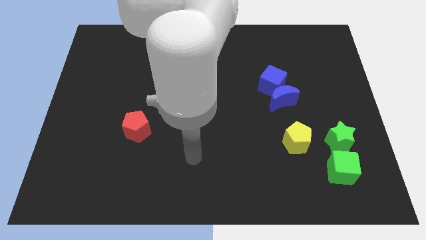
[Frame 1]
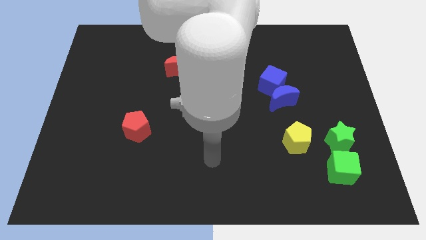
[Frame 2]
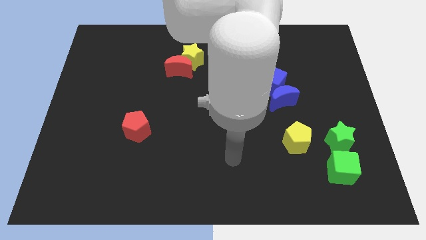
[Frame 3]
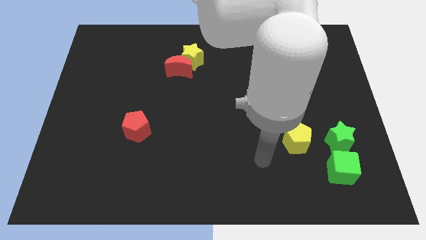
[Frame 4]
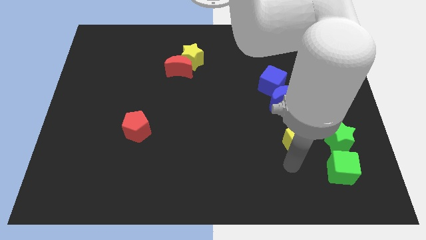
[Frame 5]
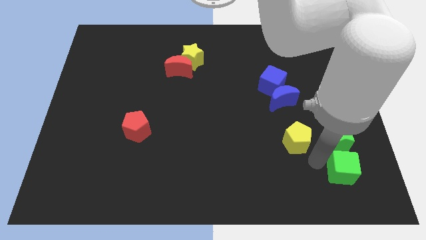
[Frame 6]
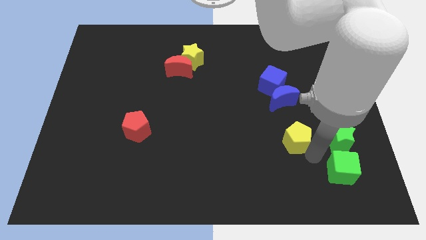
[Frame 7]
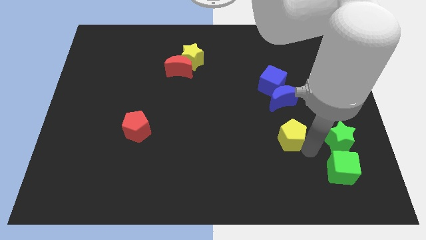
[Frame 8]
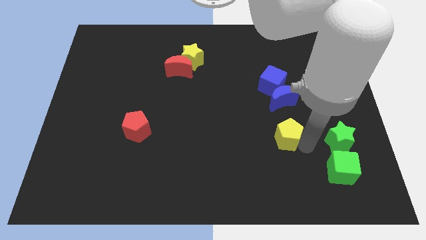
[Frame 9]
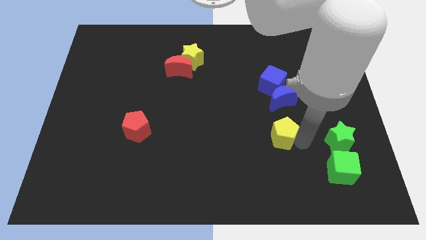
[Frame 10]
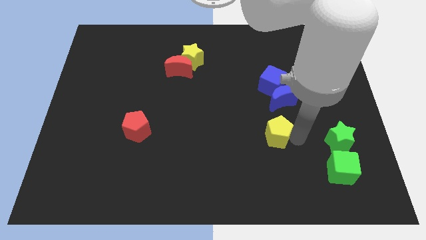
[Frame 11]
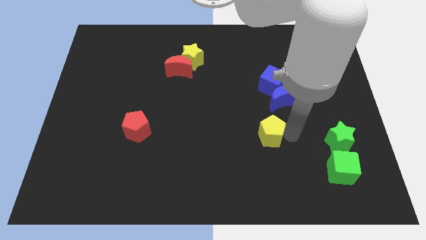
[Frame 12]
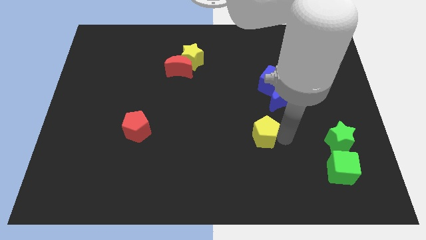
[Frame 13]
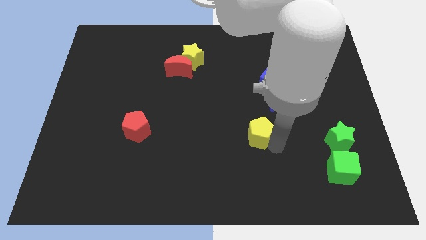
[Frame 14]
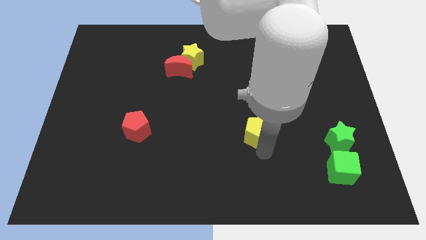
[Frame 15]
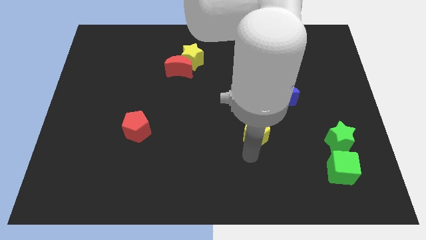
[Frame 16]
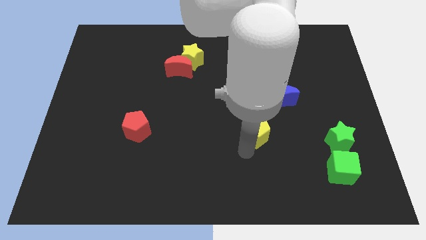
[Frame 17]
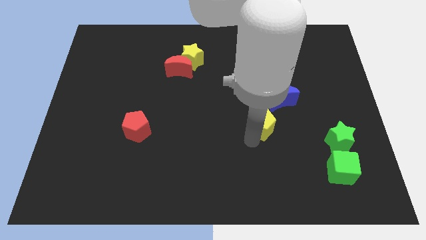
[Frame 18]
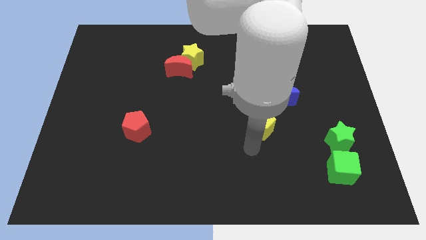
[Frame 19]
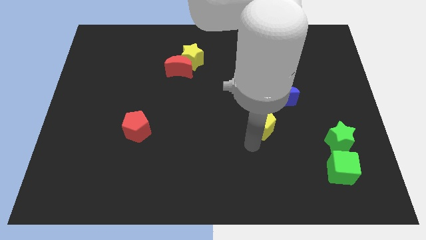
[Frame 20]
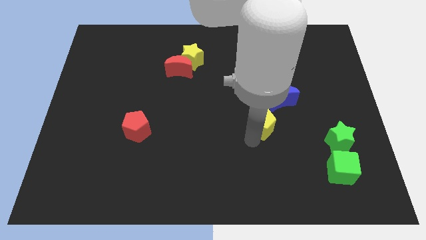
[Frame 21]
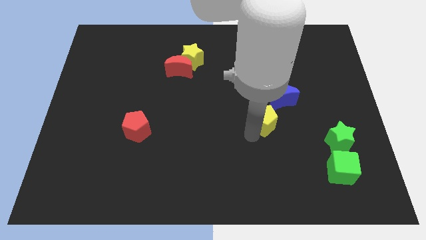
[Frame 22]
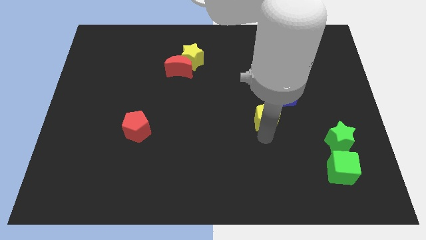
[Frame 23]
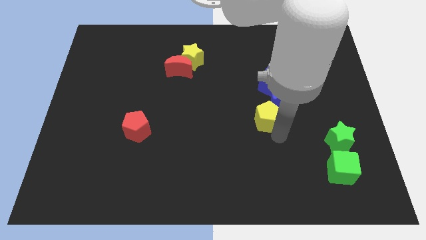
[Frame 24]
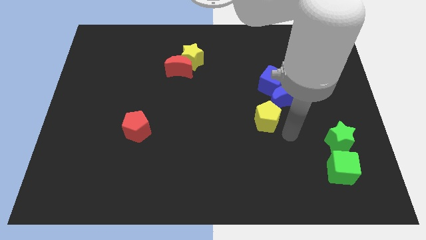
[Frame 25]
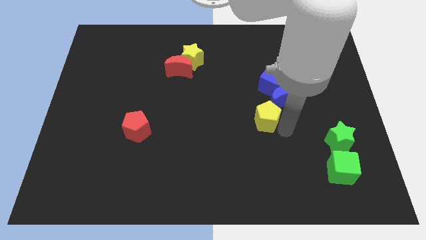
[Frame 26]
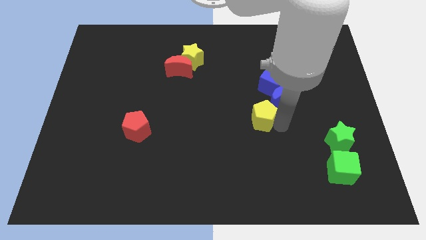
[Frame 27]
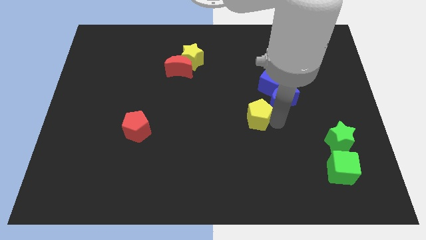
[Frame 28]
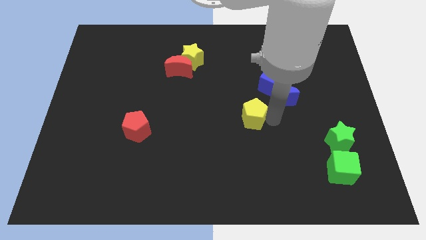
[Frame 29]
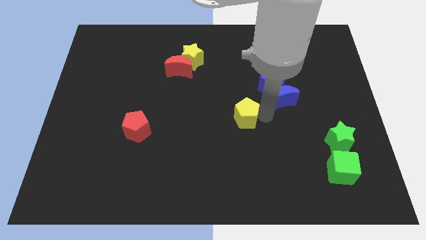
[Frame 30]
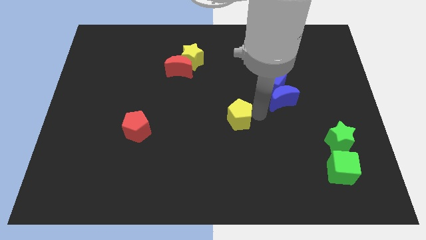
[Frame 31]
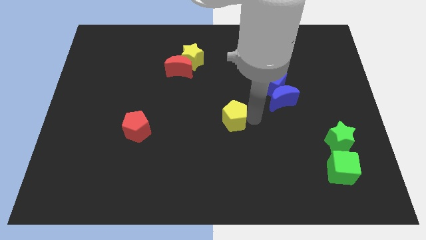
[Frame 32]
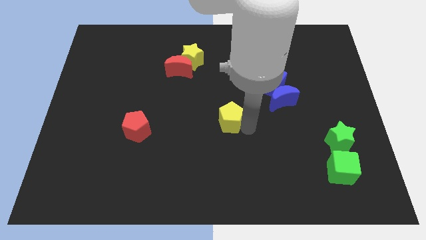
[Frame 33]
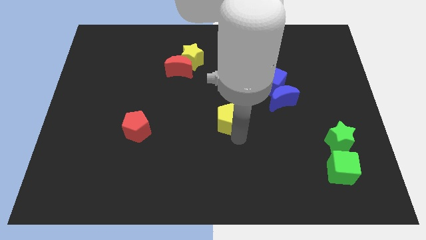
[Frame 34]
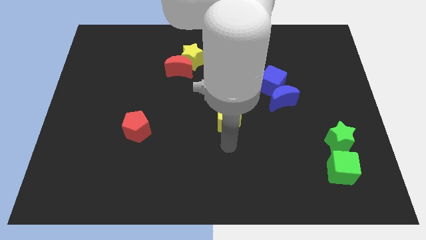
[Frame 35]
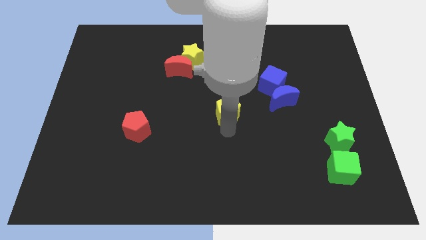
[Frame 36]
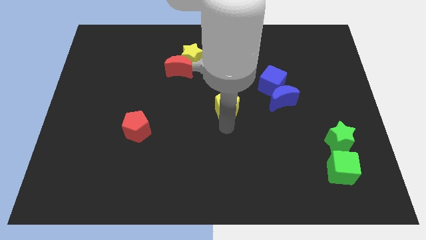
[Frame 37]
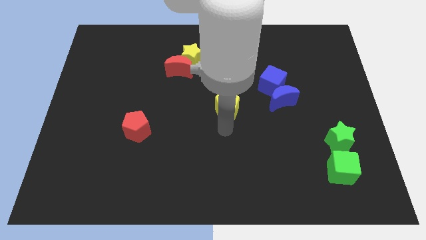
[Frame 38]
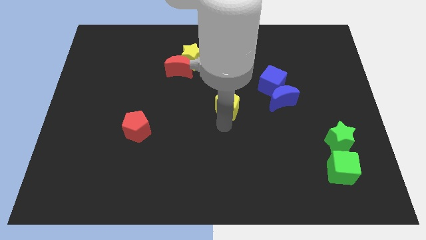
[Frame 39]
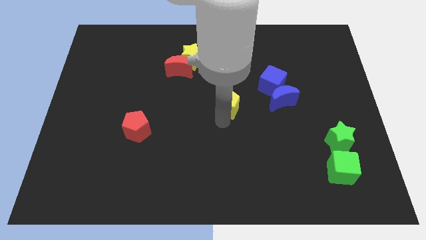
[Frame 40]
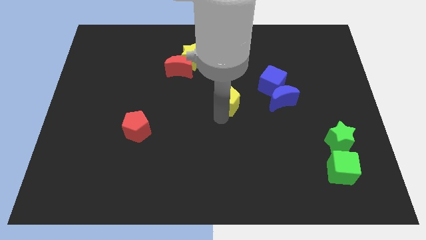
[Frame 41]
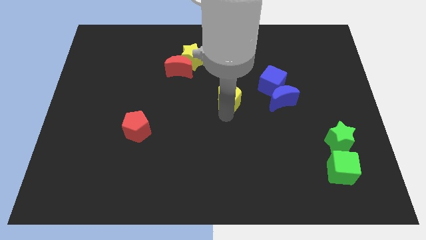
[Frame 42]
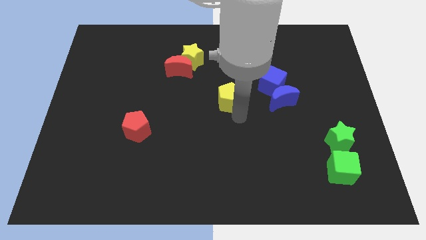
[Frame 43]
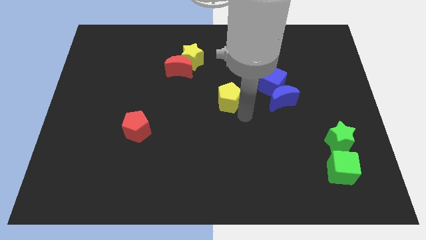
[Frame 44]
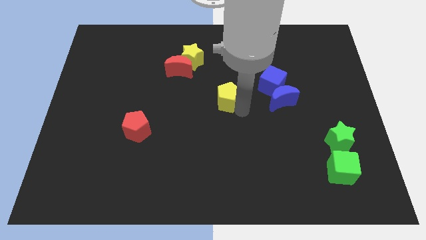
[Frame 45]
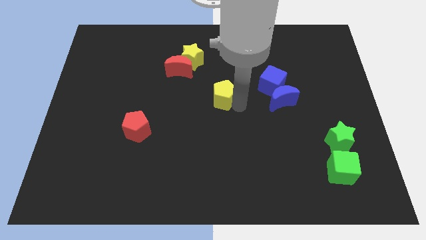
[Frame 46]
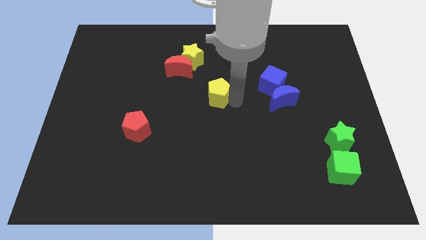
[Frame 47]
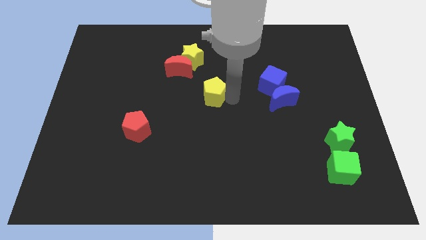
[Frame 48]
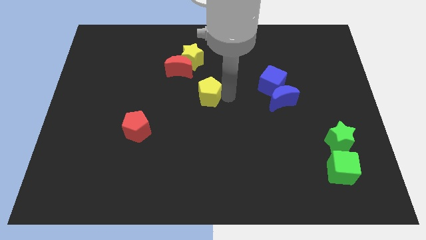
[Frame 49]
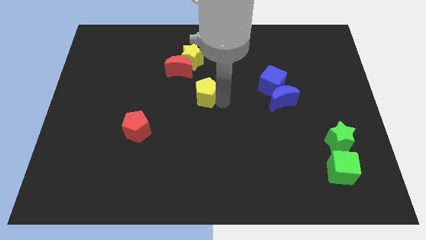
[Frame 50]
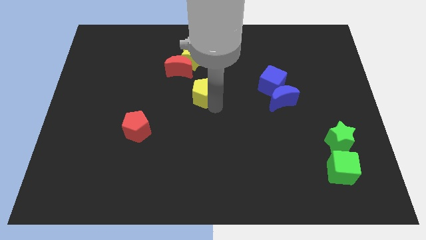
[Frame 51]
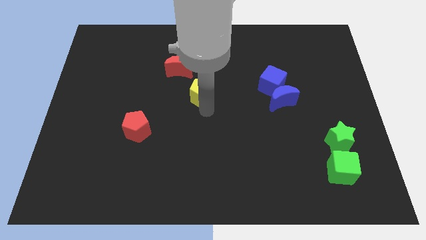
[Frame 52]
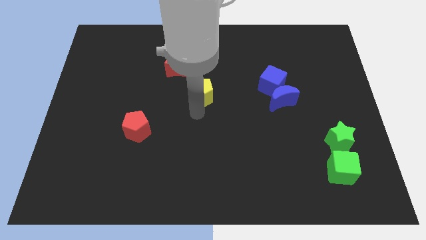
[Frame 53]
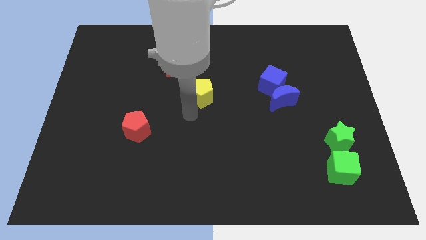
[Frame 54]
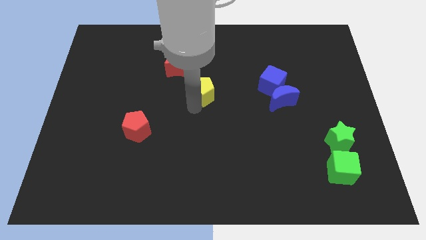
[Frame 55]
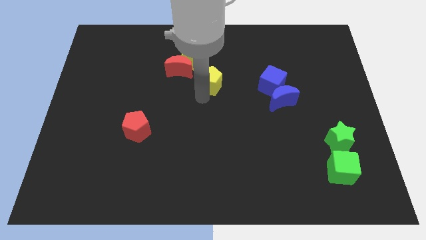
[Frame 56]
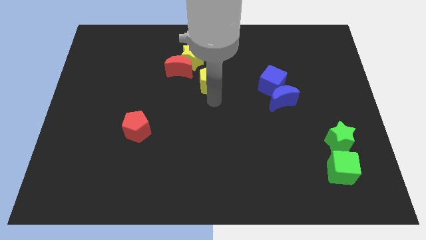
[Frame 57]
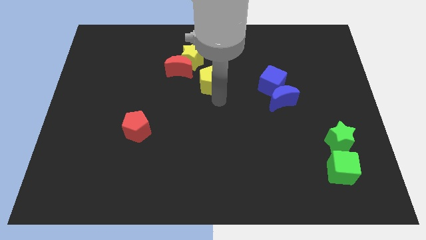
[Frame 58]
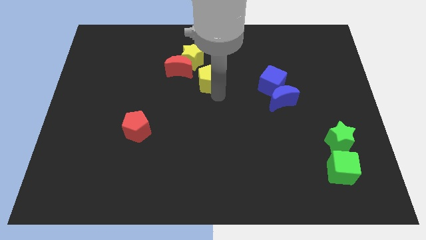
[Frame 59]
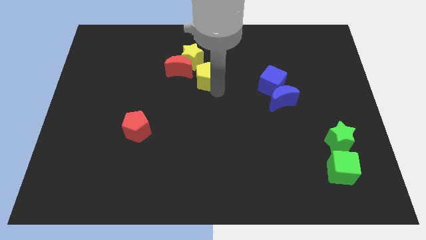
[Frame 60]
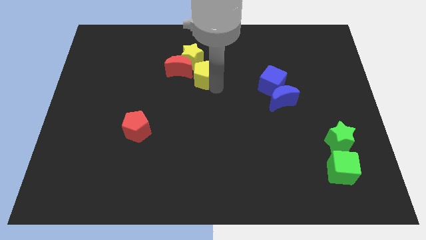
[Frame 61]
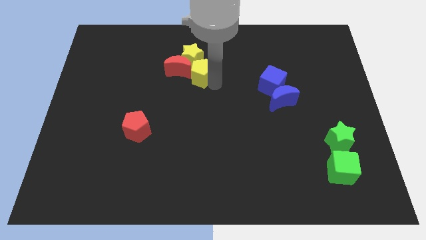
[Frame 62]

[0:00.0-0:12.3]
put the yellow pentagon close to the yellow star

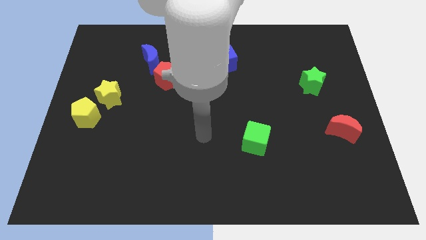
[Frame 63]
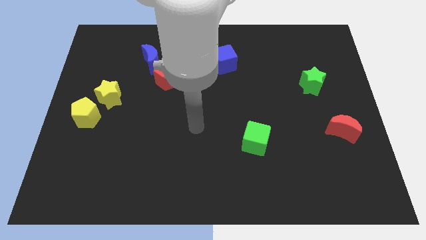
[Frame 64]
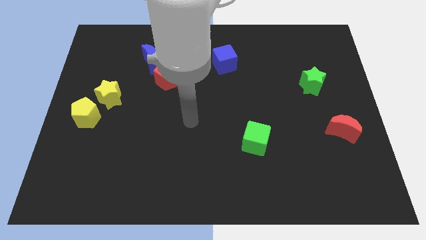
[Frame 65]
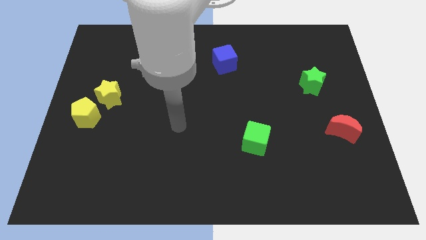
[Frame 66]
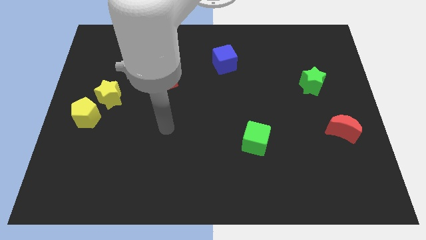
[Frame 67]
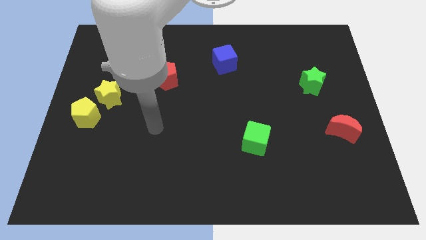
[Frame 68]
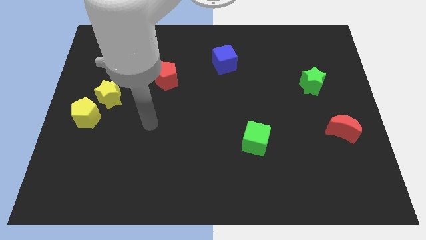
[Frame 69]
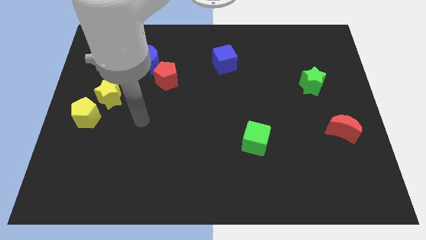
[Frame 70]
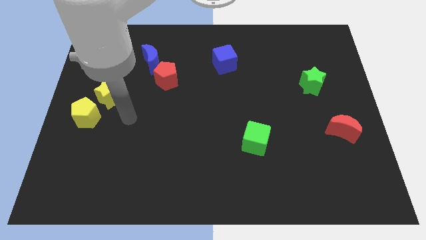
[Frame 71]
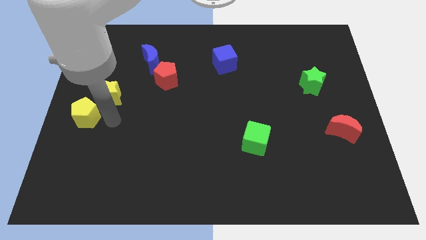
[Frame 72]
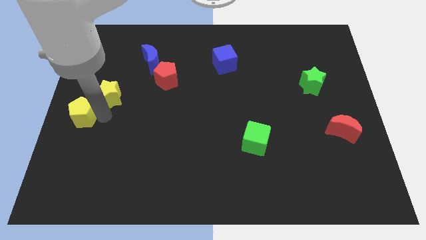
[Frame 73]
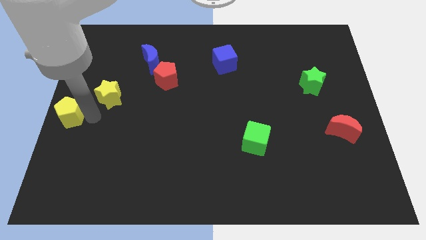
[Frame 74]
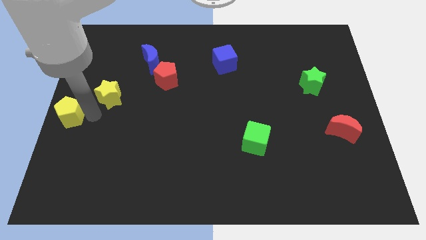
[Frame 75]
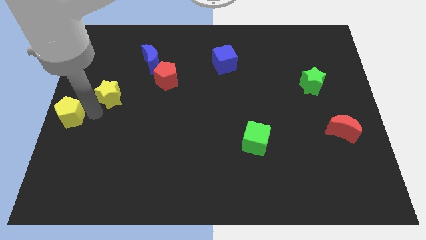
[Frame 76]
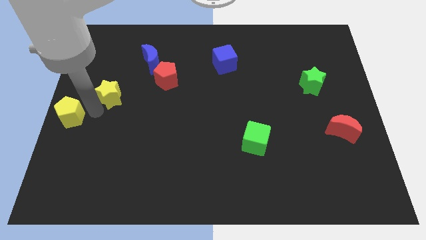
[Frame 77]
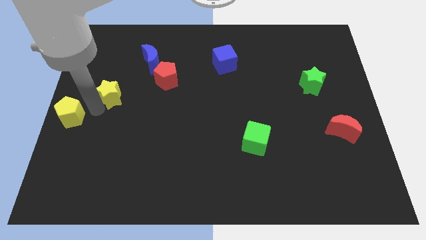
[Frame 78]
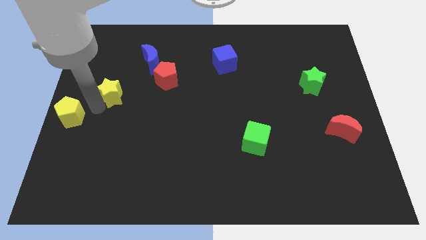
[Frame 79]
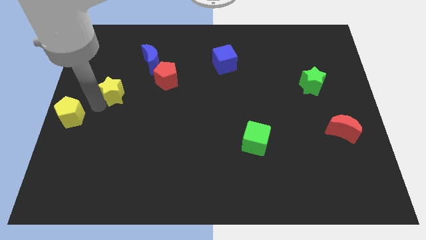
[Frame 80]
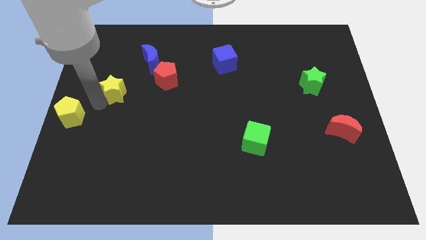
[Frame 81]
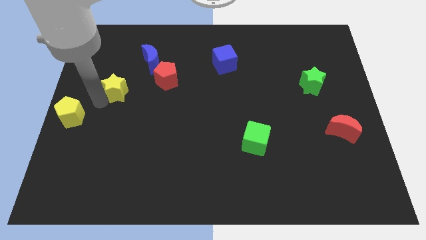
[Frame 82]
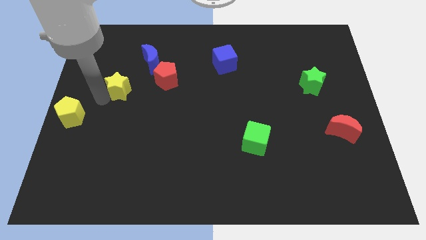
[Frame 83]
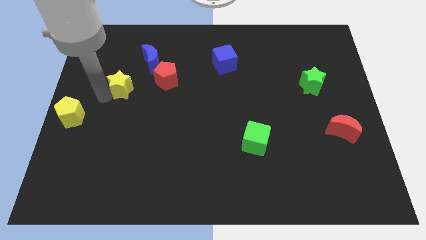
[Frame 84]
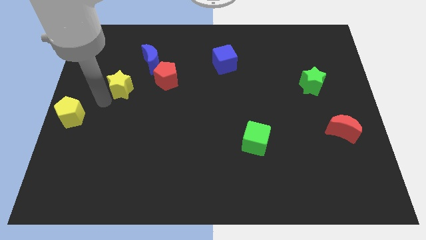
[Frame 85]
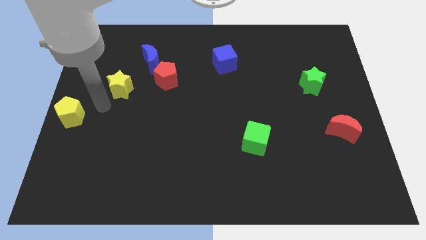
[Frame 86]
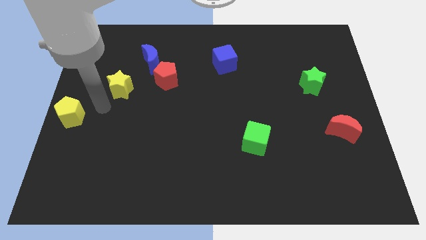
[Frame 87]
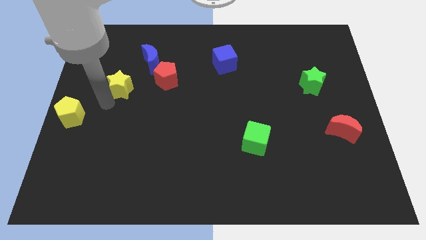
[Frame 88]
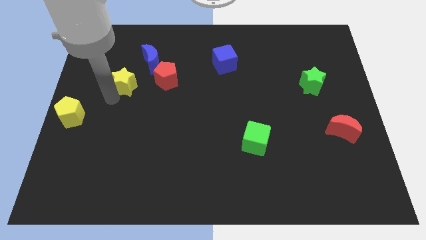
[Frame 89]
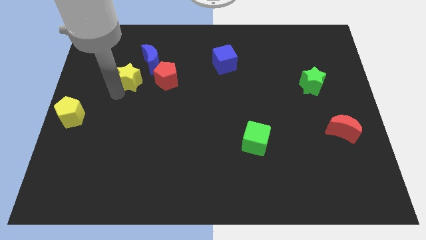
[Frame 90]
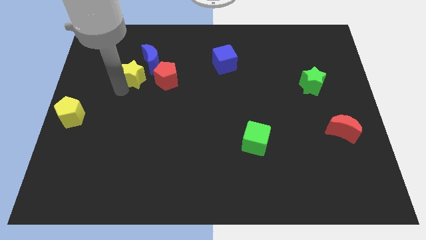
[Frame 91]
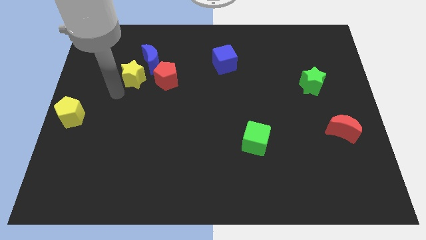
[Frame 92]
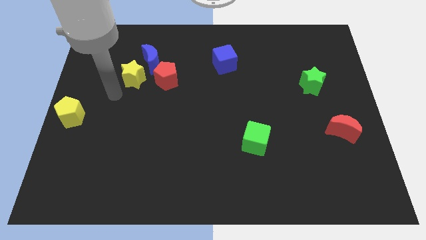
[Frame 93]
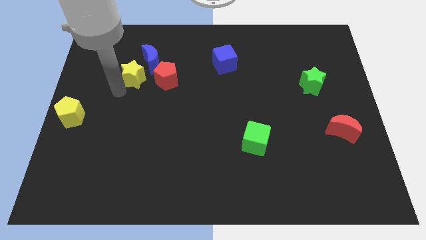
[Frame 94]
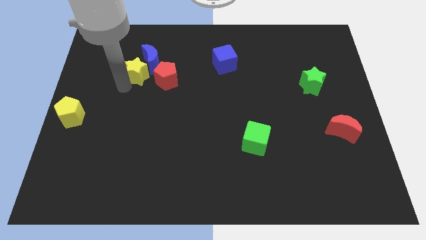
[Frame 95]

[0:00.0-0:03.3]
put the yellow star next to the blue moon
